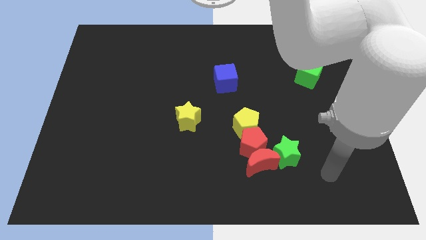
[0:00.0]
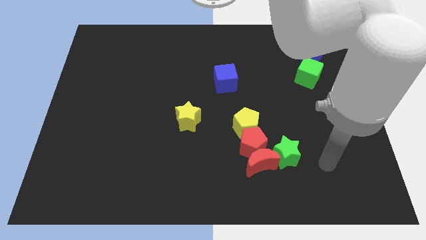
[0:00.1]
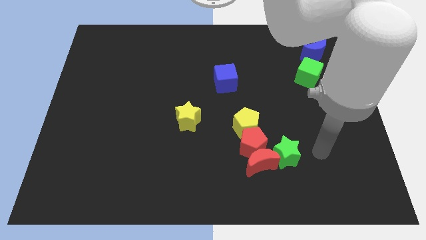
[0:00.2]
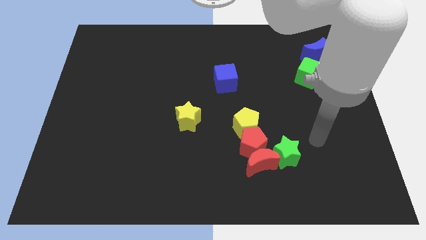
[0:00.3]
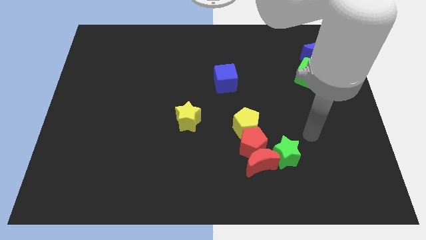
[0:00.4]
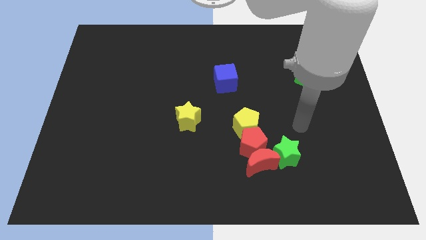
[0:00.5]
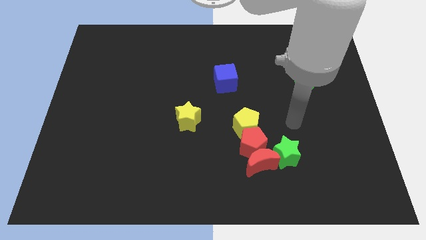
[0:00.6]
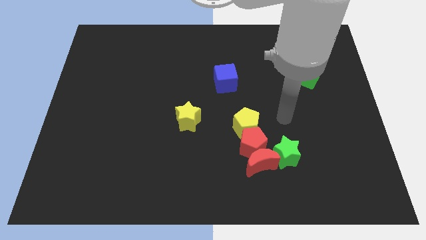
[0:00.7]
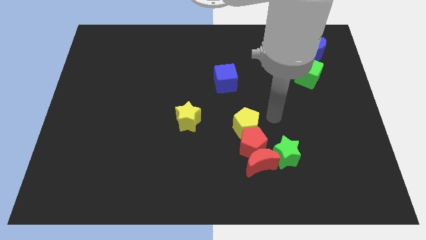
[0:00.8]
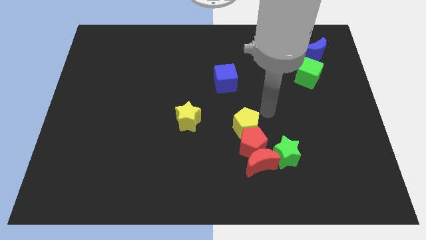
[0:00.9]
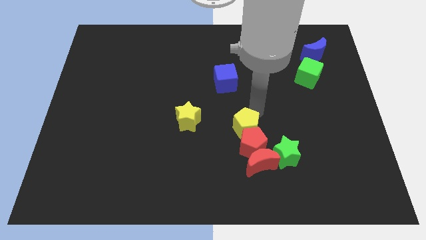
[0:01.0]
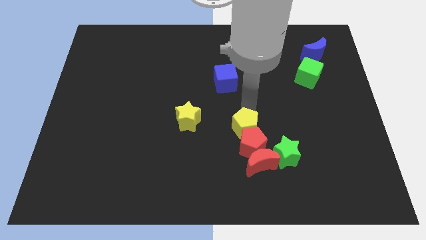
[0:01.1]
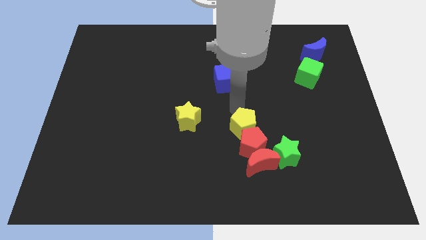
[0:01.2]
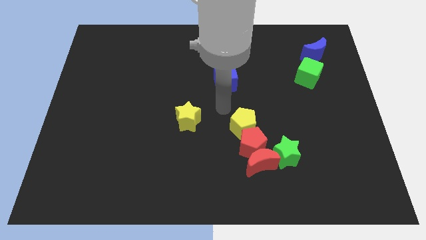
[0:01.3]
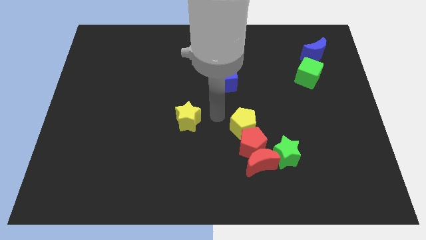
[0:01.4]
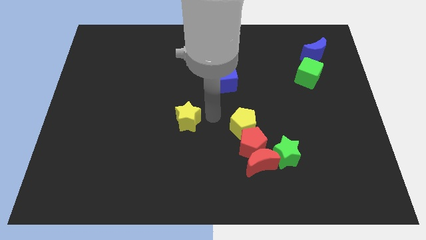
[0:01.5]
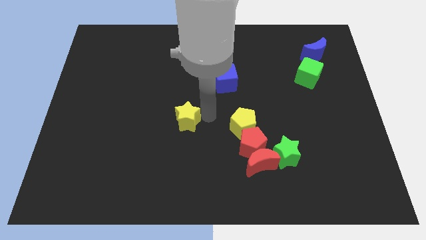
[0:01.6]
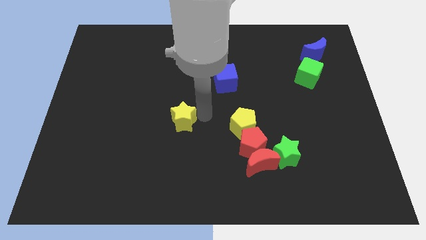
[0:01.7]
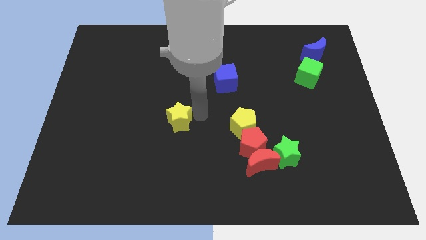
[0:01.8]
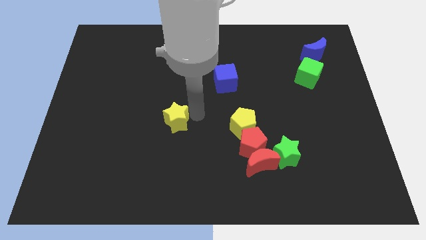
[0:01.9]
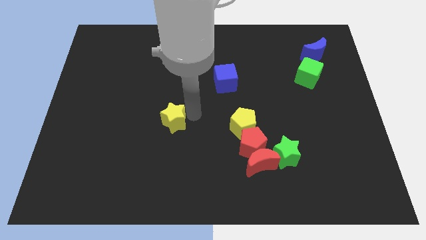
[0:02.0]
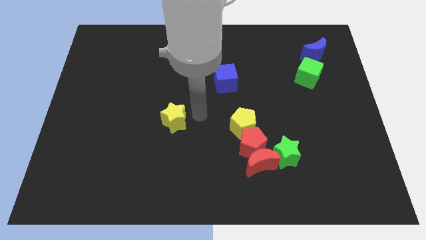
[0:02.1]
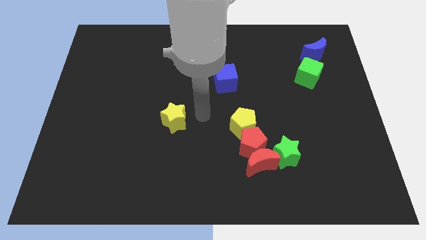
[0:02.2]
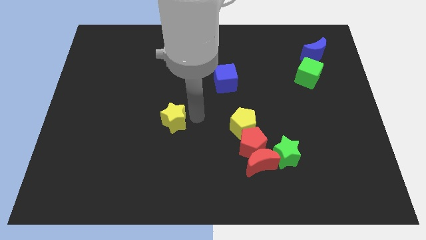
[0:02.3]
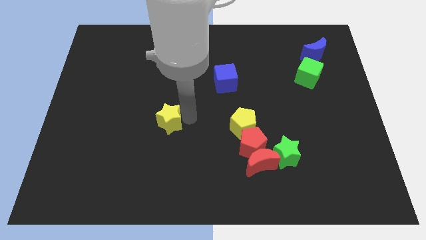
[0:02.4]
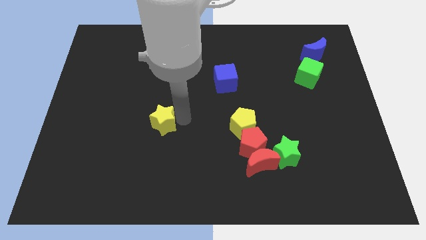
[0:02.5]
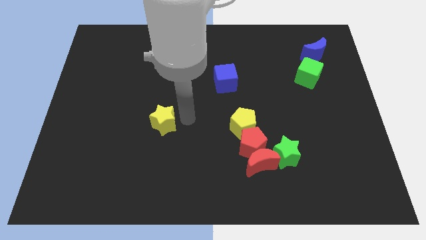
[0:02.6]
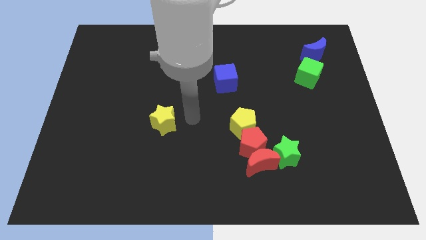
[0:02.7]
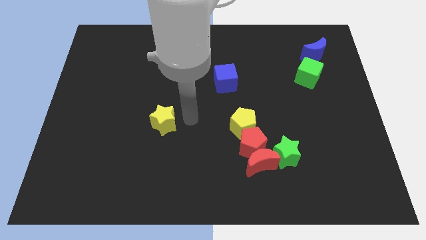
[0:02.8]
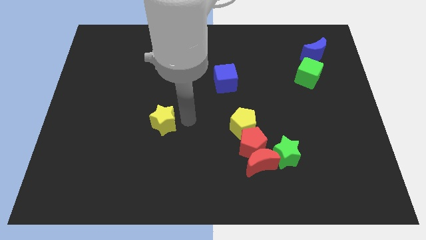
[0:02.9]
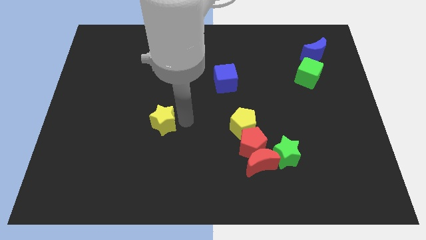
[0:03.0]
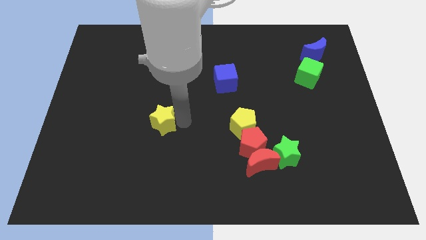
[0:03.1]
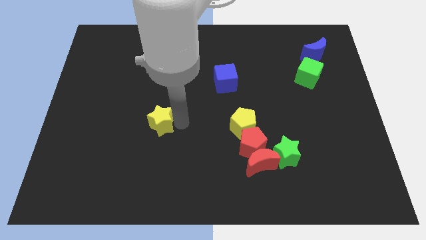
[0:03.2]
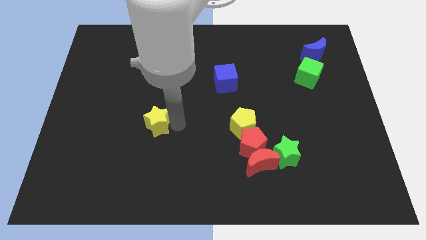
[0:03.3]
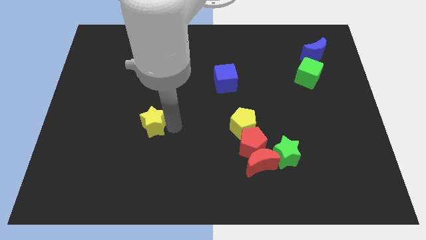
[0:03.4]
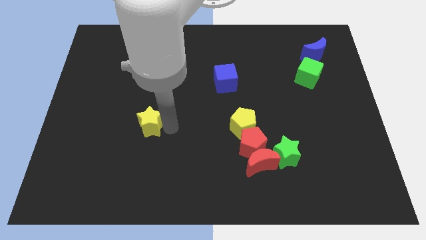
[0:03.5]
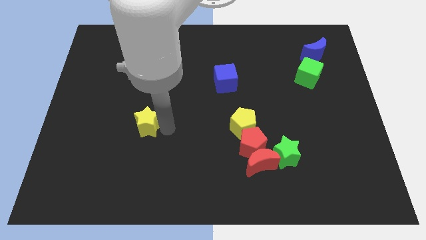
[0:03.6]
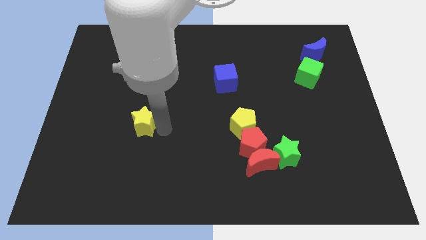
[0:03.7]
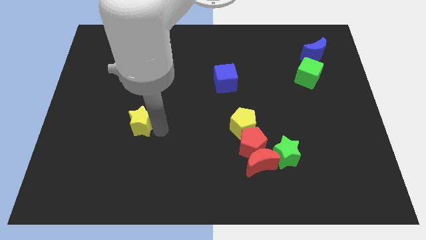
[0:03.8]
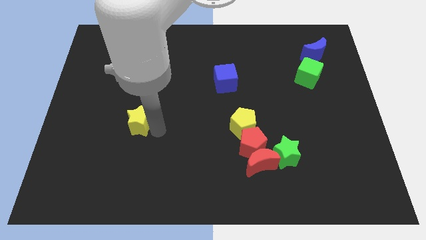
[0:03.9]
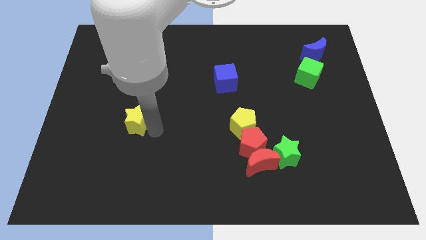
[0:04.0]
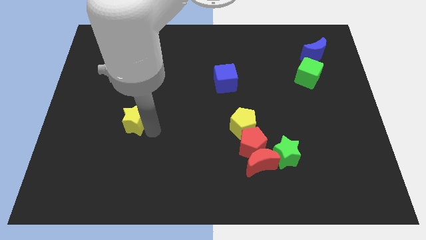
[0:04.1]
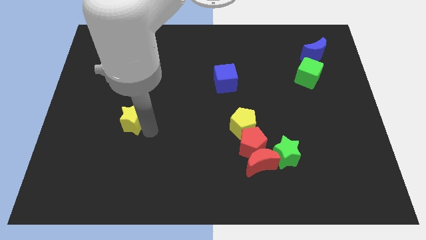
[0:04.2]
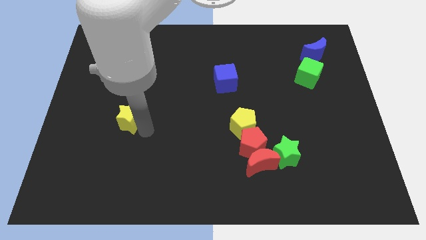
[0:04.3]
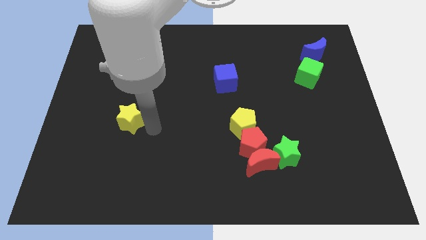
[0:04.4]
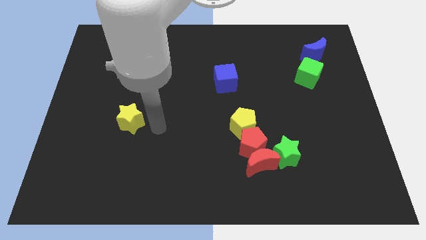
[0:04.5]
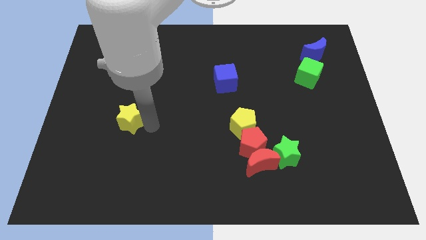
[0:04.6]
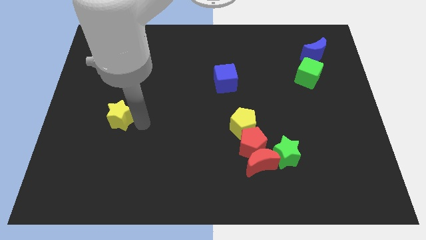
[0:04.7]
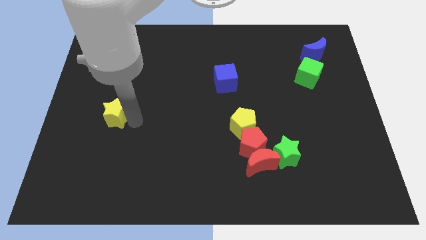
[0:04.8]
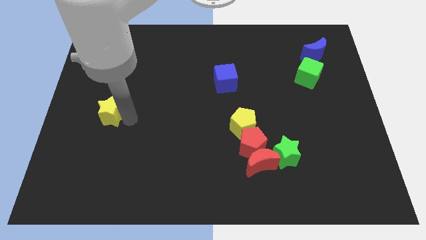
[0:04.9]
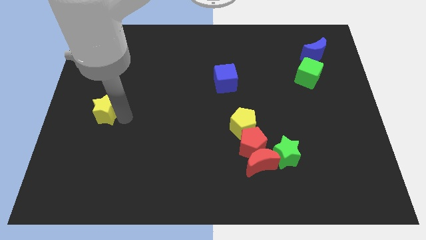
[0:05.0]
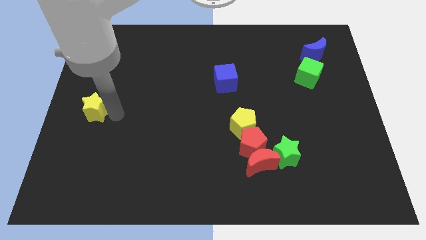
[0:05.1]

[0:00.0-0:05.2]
move the yellow star to the left side

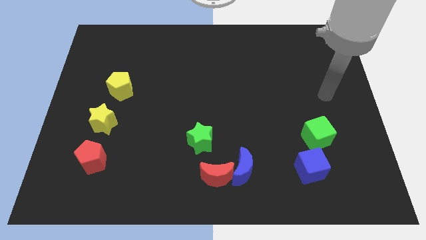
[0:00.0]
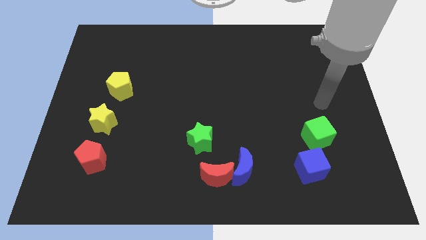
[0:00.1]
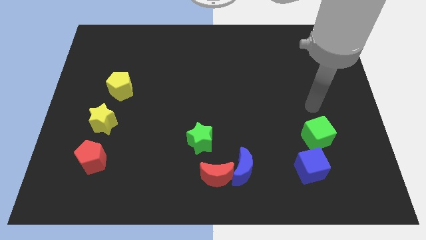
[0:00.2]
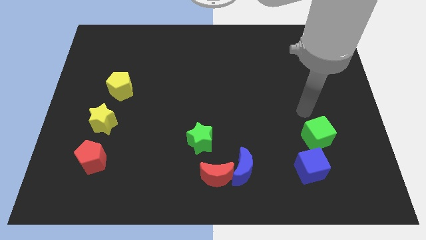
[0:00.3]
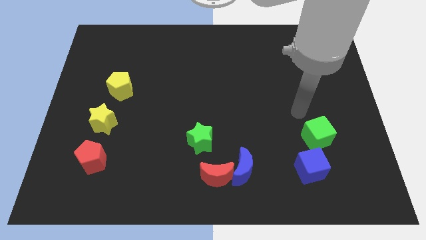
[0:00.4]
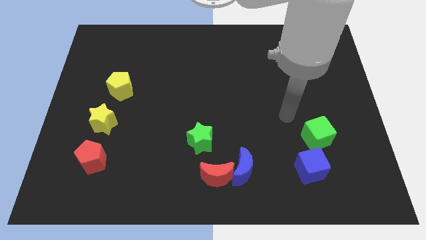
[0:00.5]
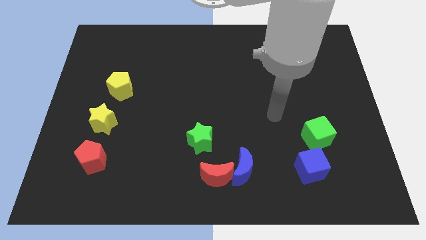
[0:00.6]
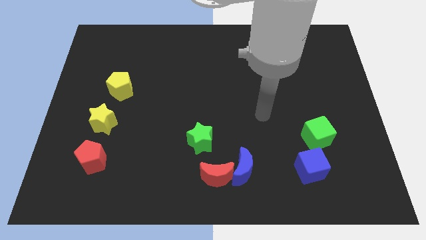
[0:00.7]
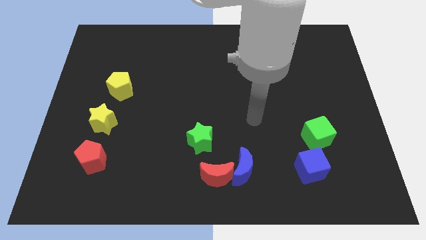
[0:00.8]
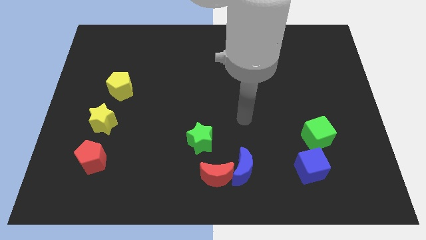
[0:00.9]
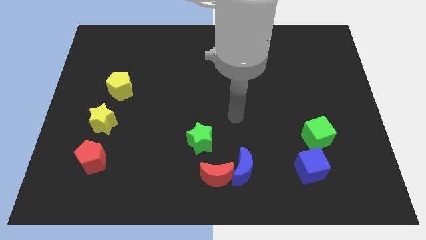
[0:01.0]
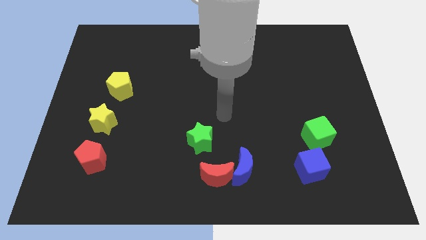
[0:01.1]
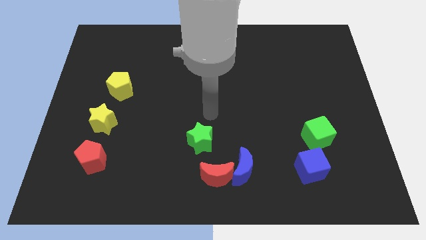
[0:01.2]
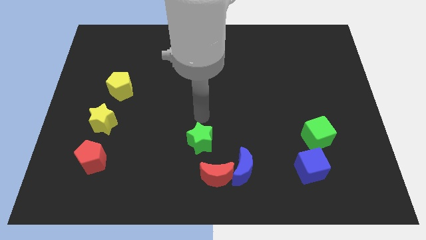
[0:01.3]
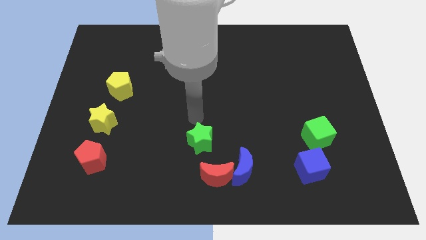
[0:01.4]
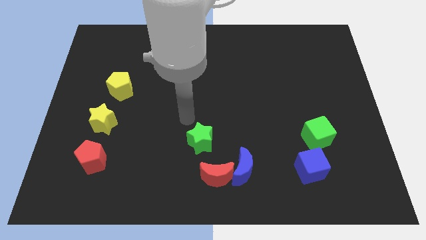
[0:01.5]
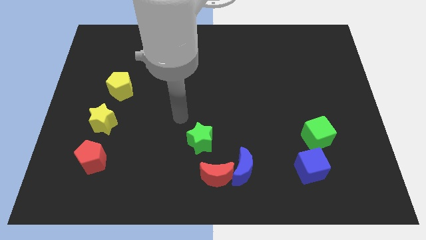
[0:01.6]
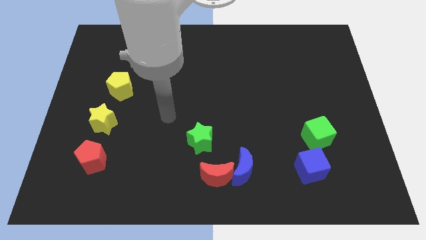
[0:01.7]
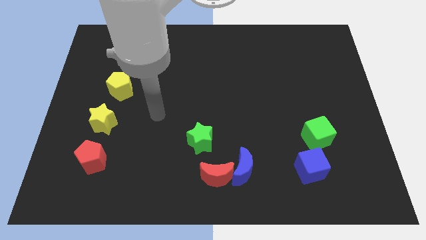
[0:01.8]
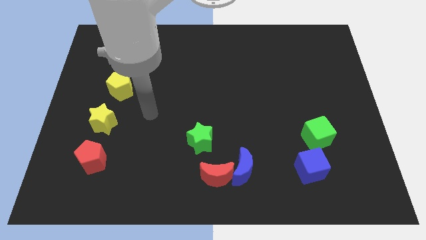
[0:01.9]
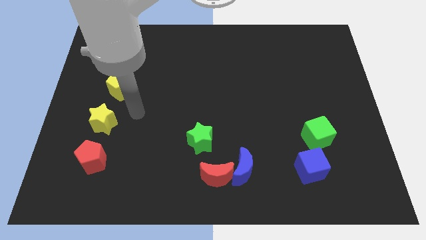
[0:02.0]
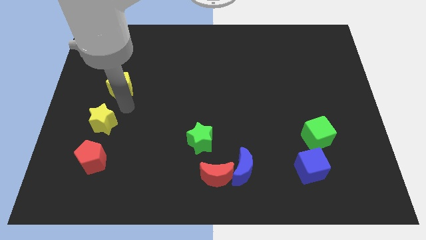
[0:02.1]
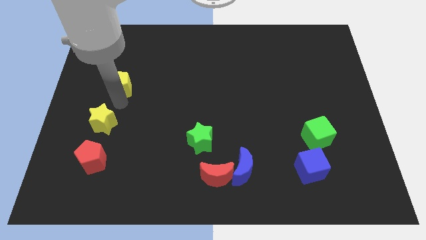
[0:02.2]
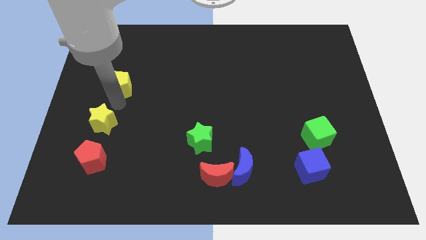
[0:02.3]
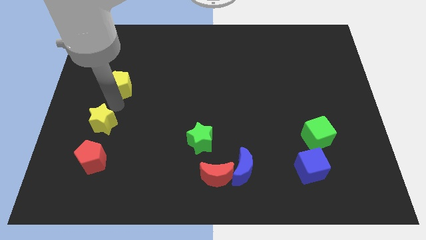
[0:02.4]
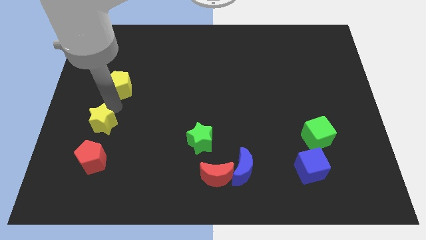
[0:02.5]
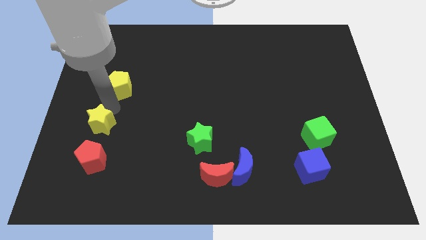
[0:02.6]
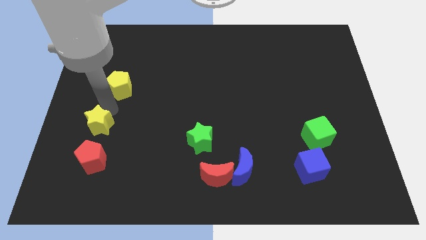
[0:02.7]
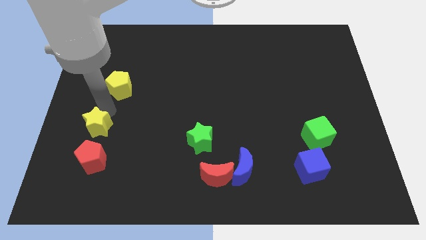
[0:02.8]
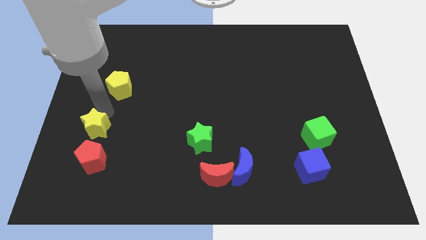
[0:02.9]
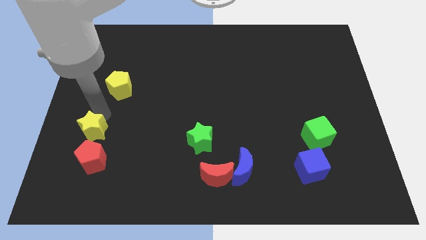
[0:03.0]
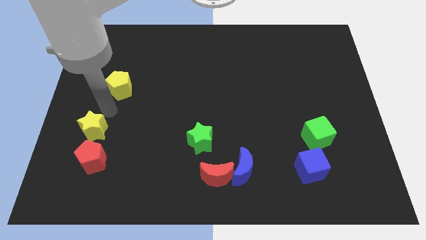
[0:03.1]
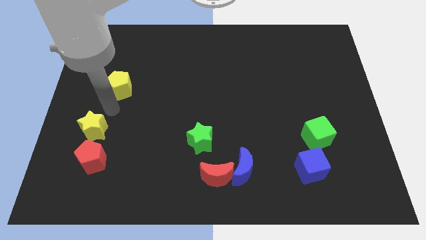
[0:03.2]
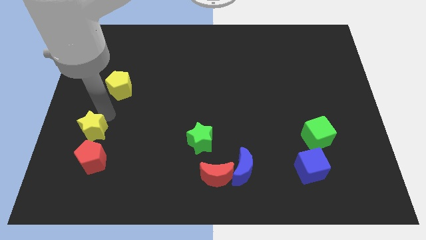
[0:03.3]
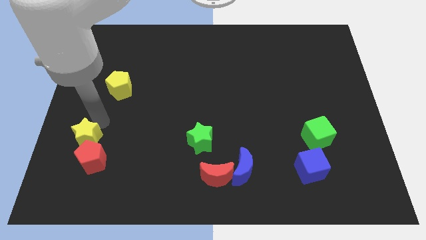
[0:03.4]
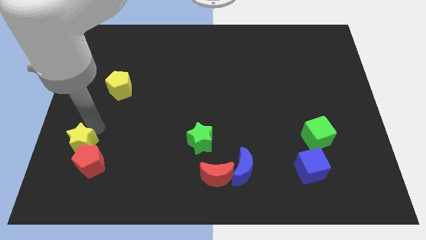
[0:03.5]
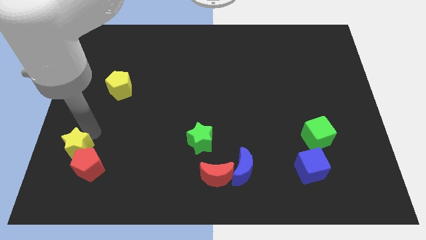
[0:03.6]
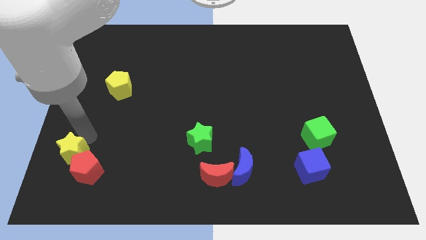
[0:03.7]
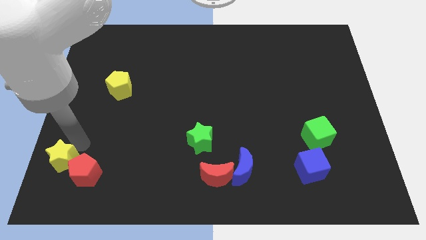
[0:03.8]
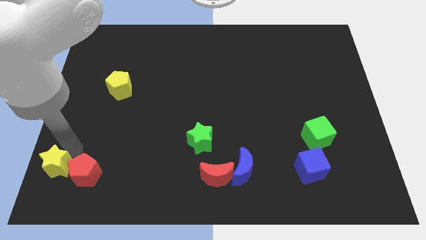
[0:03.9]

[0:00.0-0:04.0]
push the yellow star to the bottom left corner
